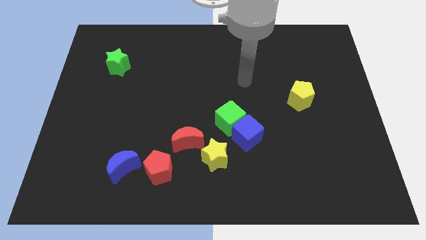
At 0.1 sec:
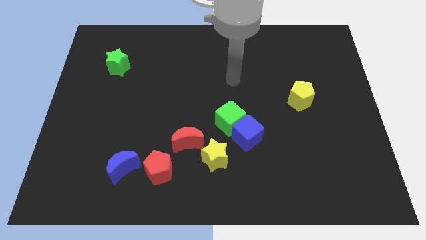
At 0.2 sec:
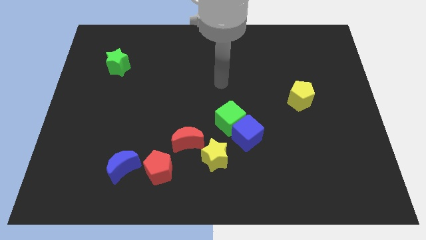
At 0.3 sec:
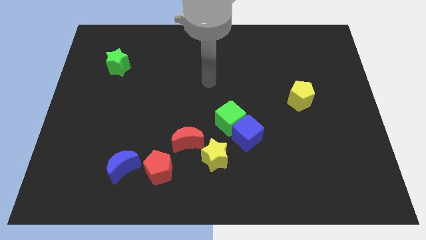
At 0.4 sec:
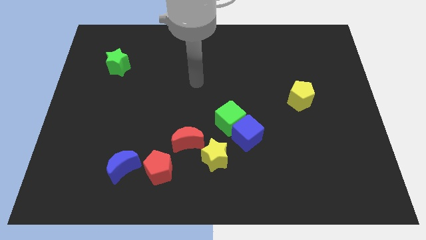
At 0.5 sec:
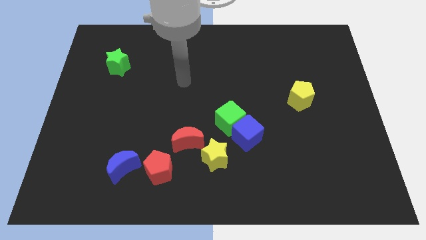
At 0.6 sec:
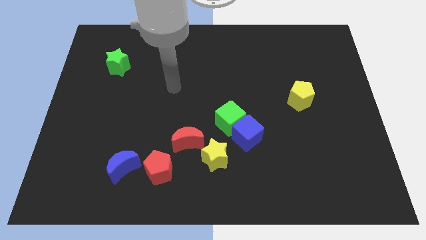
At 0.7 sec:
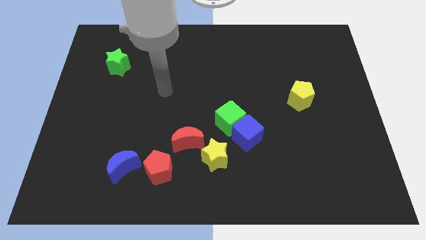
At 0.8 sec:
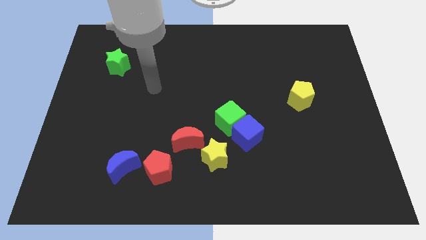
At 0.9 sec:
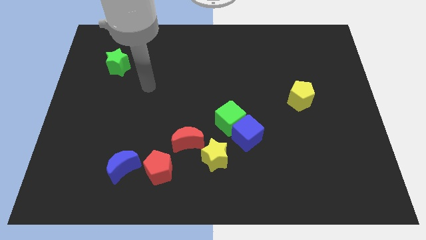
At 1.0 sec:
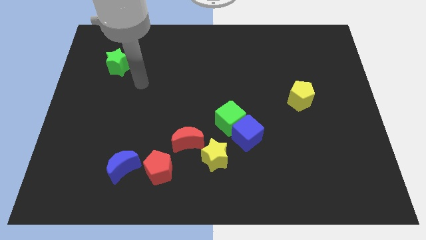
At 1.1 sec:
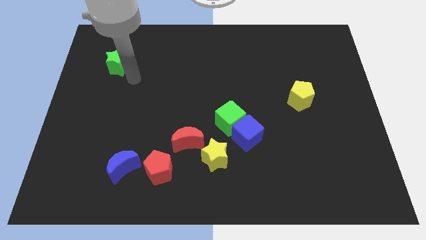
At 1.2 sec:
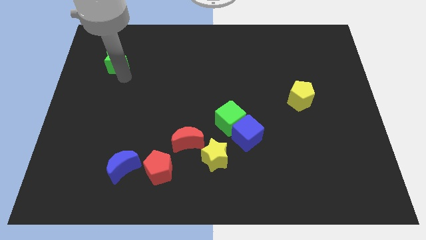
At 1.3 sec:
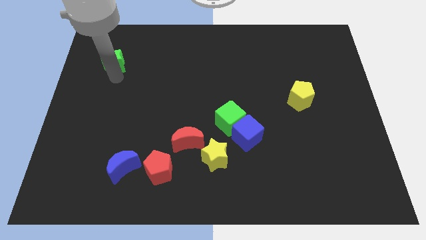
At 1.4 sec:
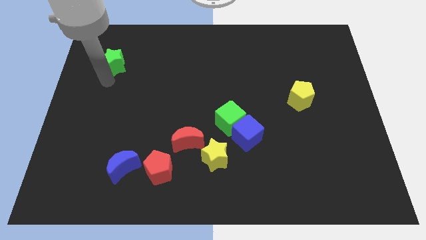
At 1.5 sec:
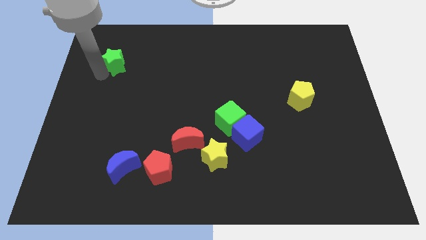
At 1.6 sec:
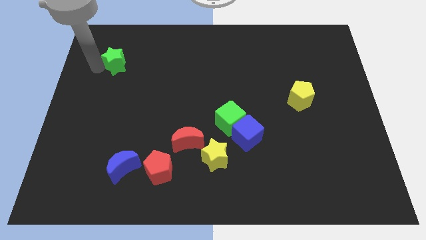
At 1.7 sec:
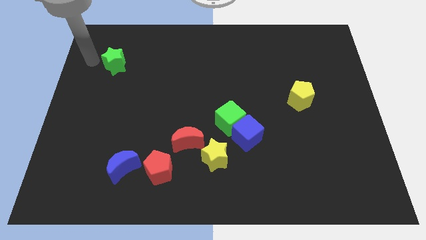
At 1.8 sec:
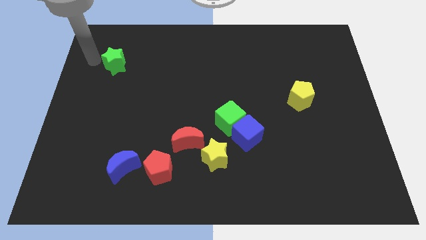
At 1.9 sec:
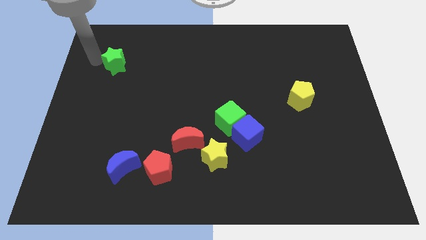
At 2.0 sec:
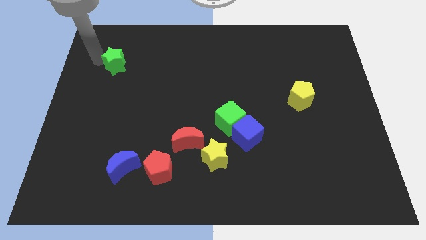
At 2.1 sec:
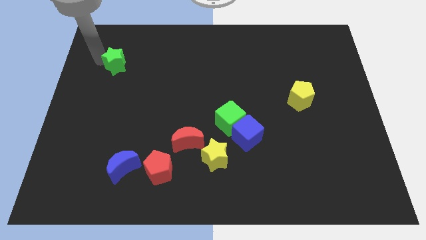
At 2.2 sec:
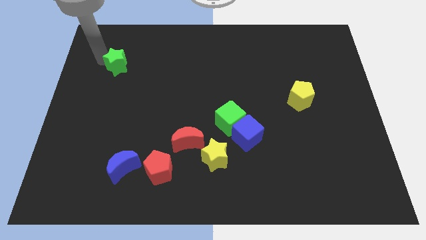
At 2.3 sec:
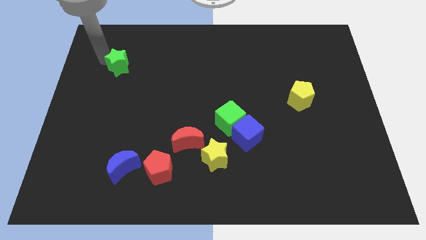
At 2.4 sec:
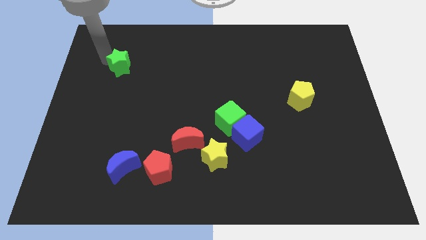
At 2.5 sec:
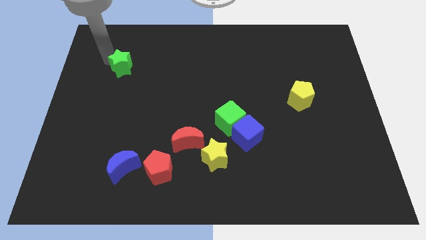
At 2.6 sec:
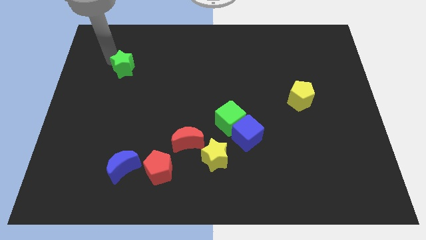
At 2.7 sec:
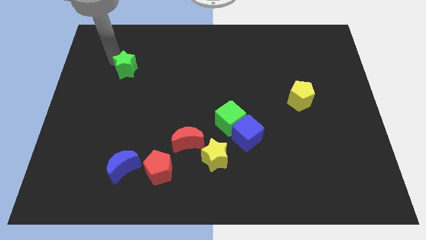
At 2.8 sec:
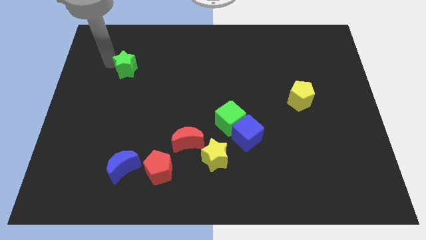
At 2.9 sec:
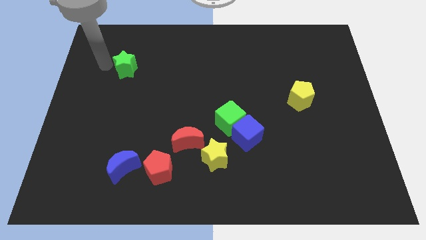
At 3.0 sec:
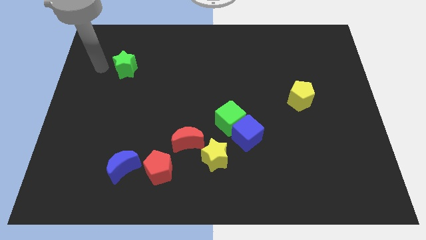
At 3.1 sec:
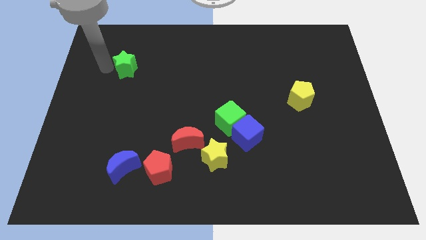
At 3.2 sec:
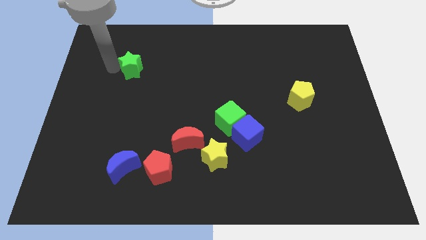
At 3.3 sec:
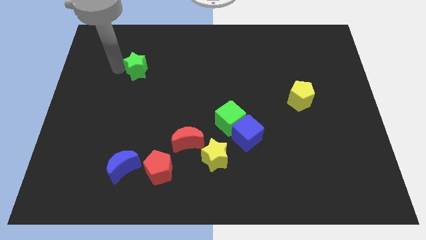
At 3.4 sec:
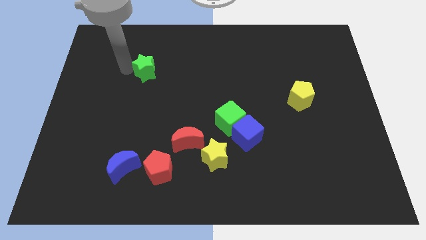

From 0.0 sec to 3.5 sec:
move the green star to the right somewhat

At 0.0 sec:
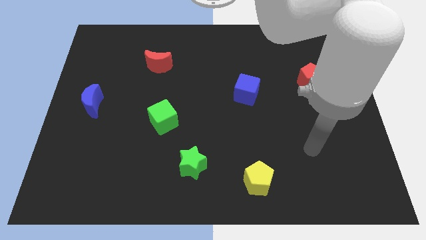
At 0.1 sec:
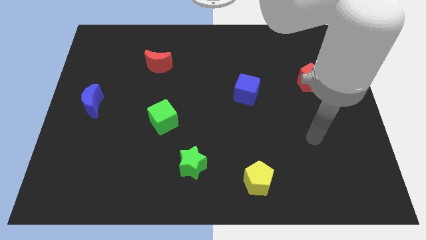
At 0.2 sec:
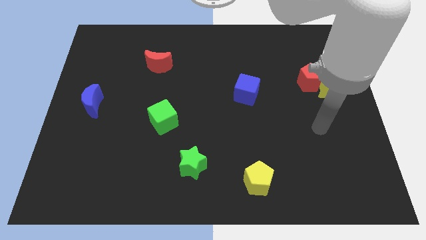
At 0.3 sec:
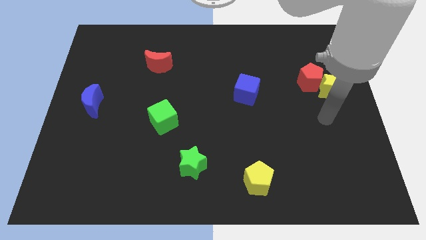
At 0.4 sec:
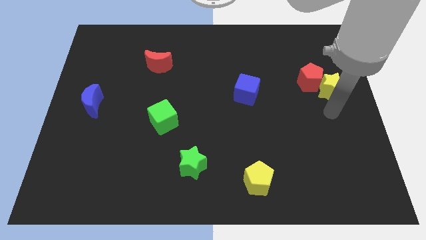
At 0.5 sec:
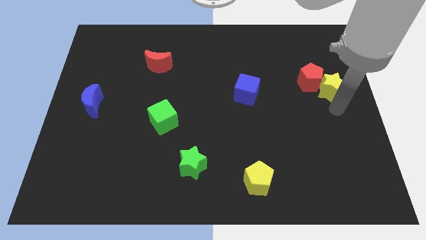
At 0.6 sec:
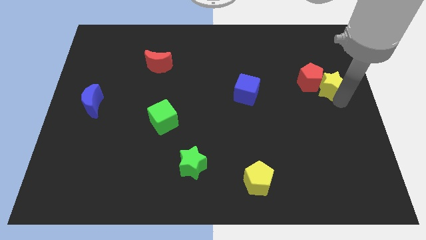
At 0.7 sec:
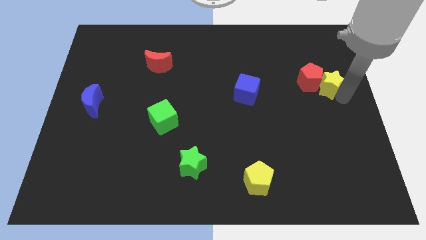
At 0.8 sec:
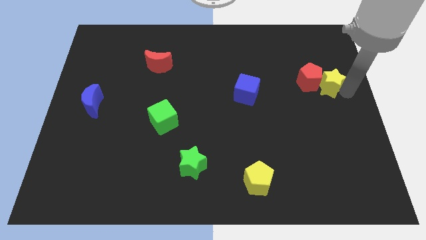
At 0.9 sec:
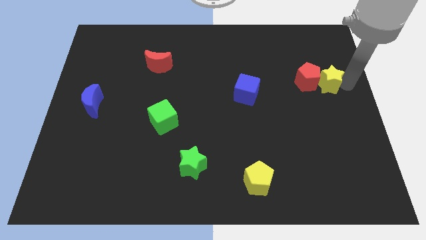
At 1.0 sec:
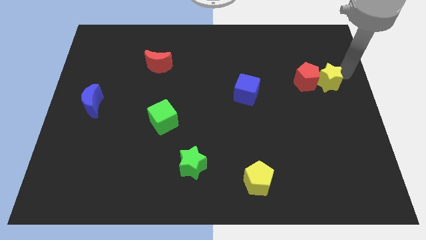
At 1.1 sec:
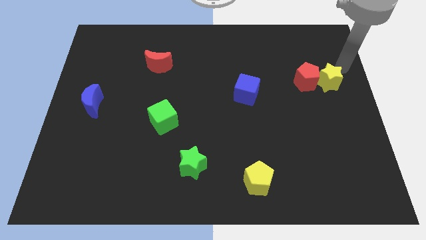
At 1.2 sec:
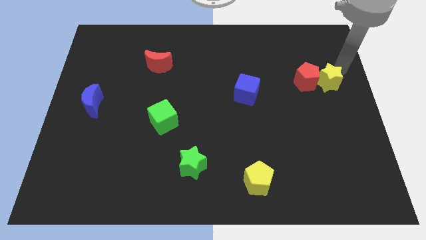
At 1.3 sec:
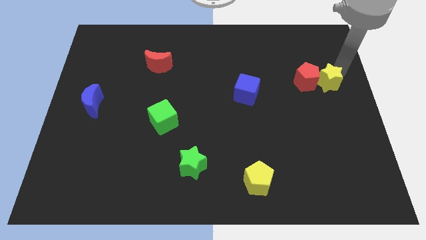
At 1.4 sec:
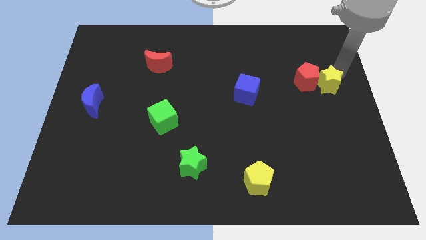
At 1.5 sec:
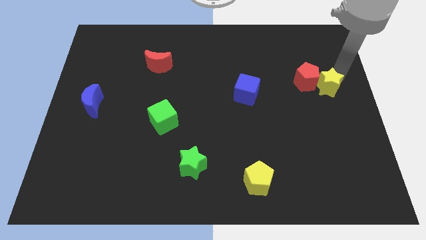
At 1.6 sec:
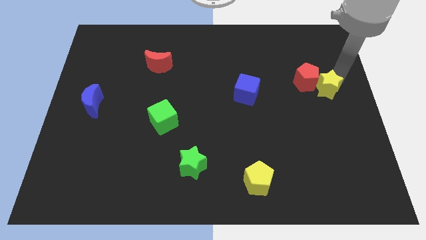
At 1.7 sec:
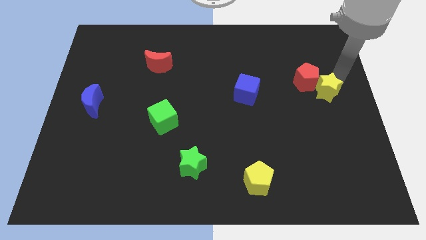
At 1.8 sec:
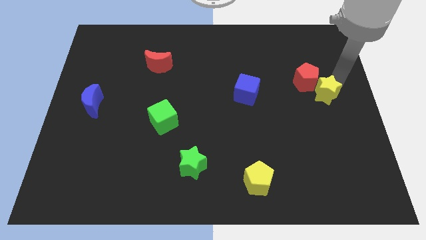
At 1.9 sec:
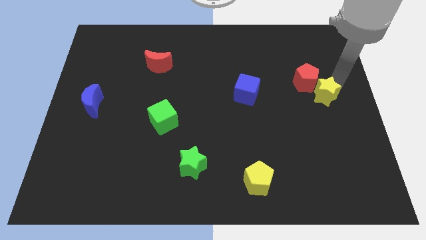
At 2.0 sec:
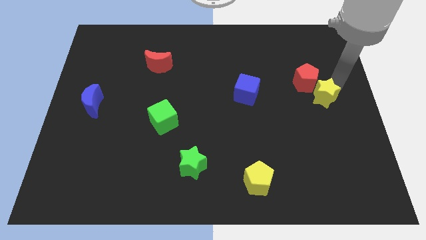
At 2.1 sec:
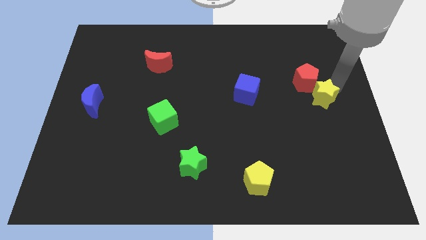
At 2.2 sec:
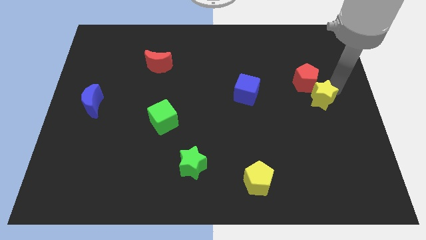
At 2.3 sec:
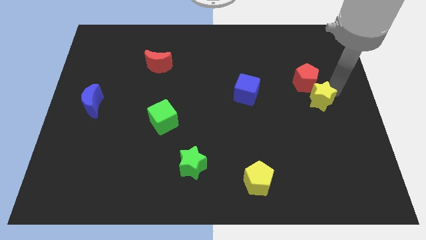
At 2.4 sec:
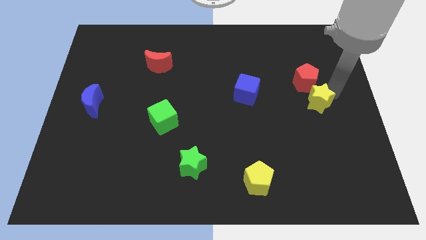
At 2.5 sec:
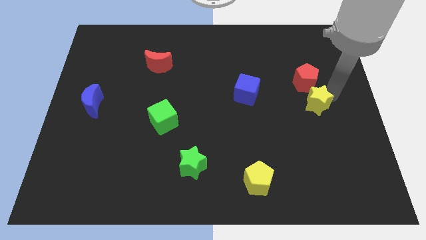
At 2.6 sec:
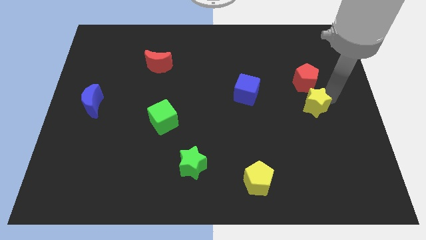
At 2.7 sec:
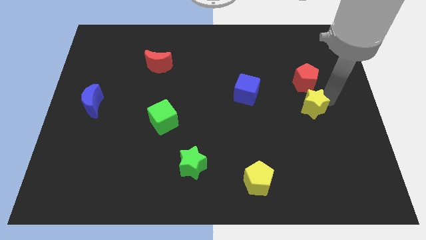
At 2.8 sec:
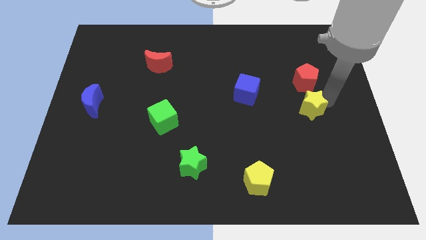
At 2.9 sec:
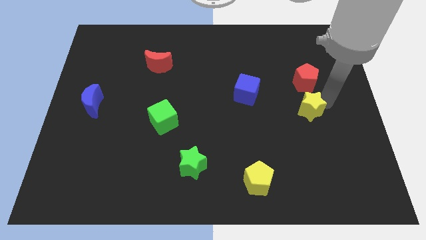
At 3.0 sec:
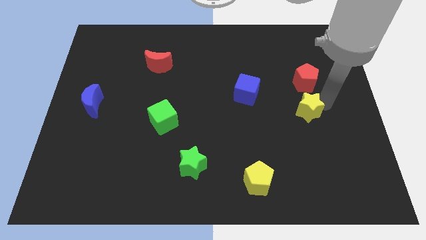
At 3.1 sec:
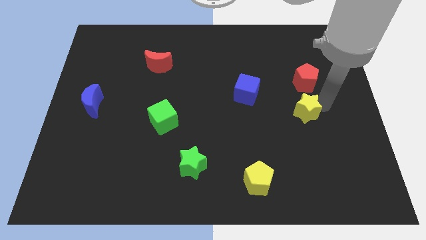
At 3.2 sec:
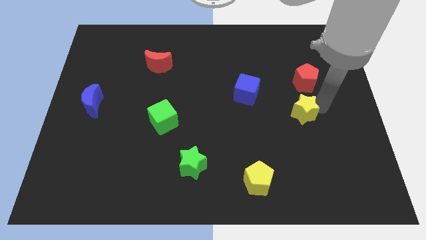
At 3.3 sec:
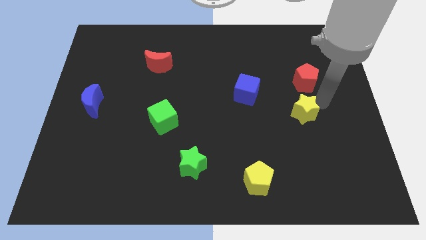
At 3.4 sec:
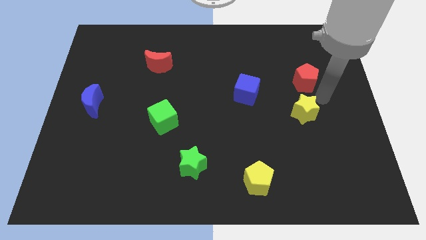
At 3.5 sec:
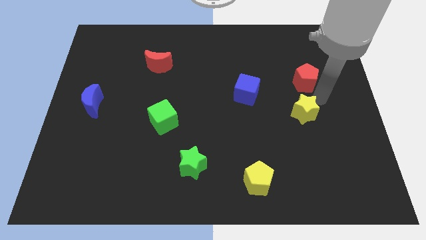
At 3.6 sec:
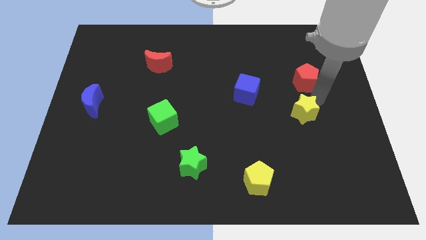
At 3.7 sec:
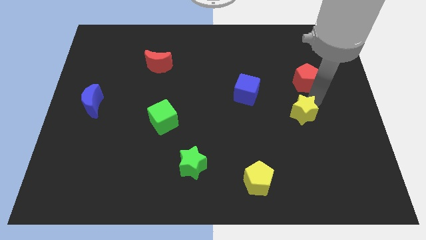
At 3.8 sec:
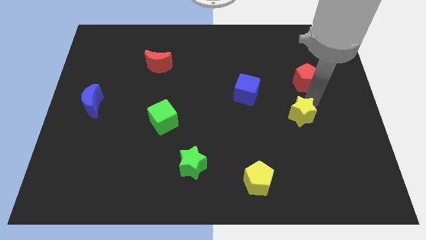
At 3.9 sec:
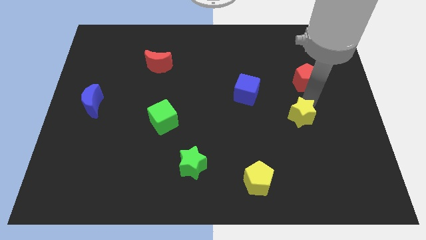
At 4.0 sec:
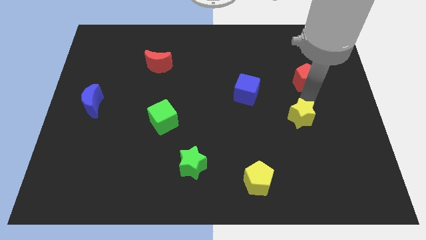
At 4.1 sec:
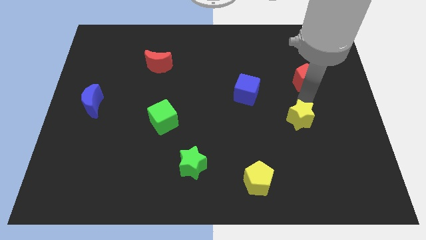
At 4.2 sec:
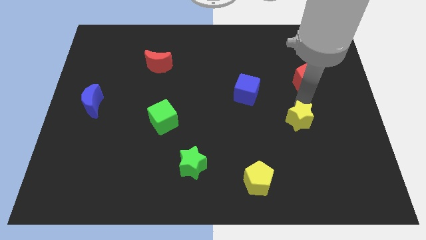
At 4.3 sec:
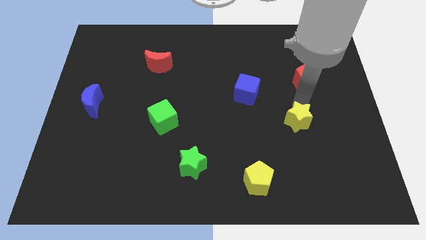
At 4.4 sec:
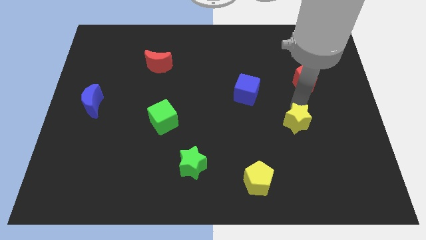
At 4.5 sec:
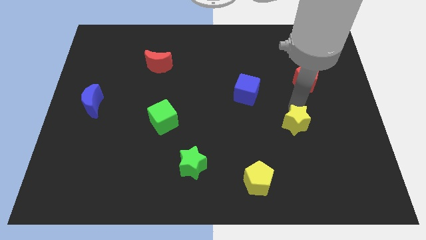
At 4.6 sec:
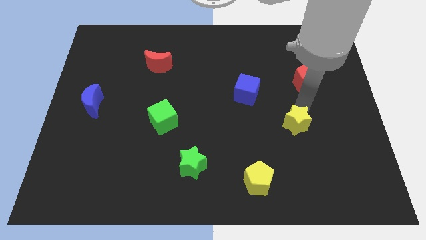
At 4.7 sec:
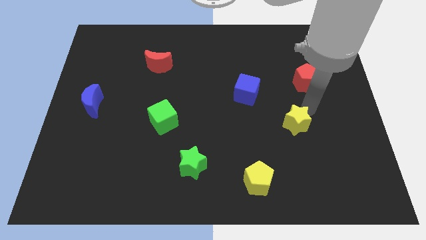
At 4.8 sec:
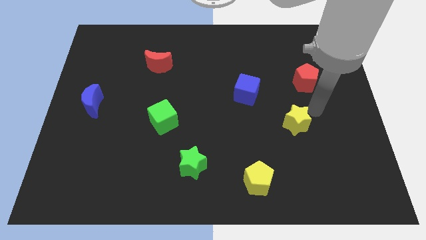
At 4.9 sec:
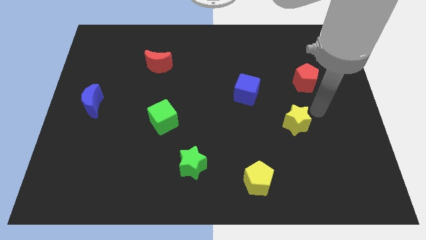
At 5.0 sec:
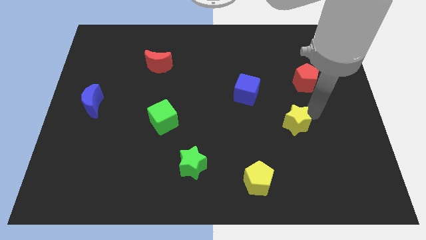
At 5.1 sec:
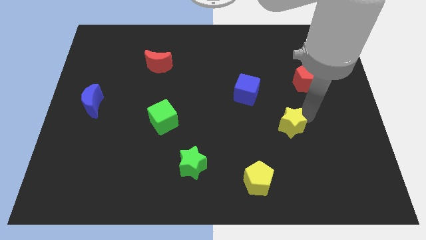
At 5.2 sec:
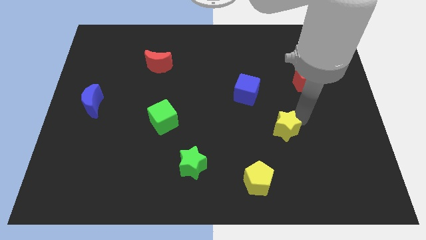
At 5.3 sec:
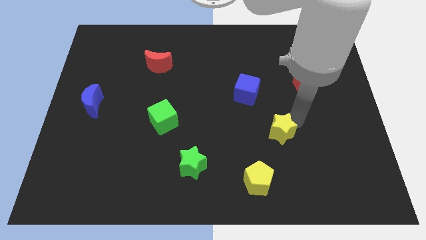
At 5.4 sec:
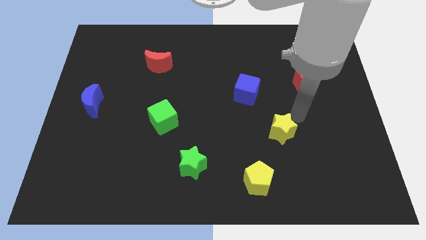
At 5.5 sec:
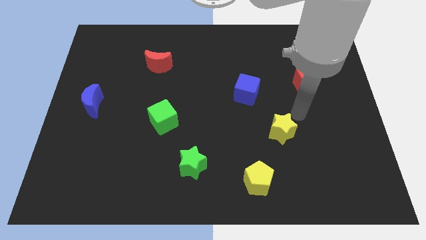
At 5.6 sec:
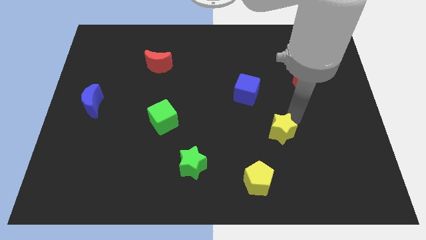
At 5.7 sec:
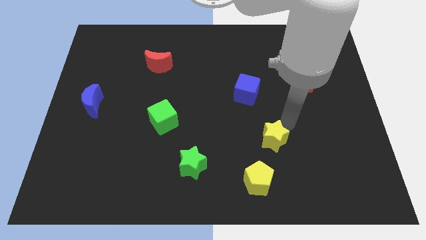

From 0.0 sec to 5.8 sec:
slide the yellow star diagonally downwards and to the left
